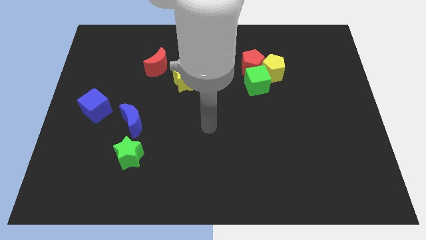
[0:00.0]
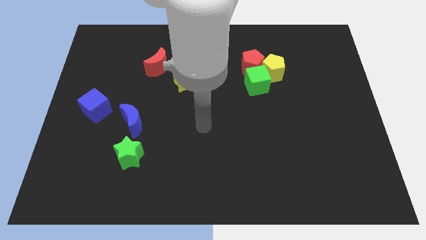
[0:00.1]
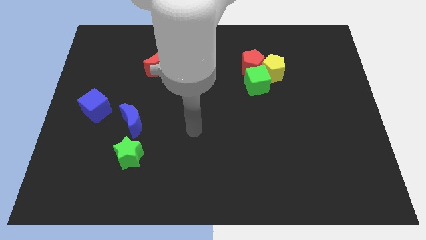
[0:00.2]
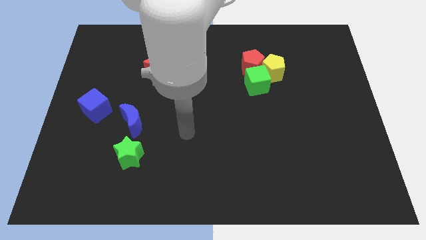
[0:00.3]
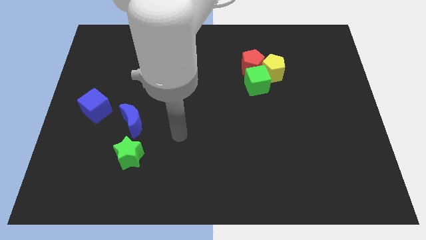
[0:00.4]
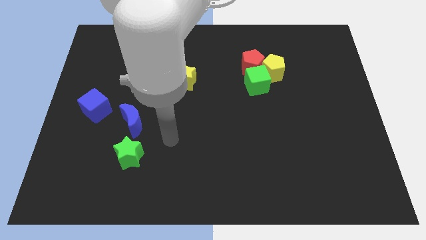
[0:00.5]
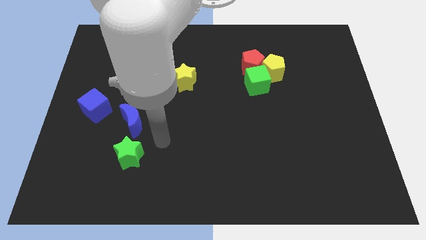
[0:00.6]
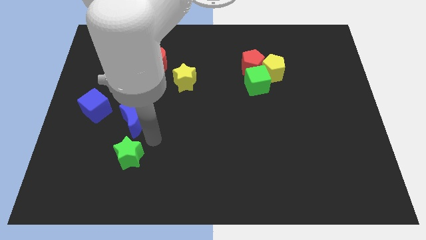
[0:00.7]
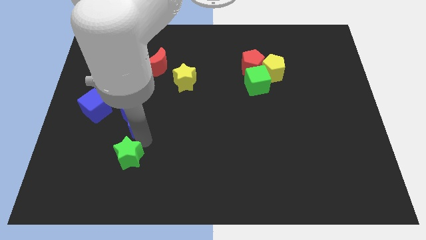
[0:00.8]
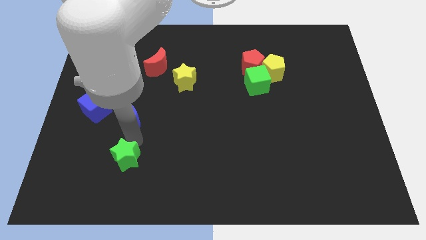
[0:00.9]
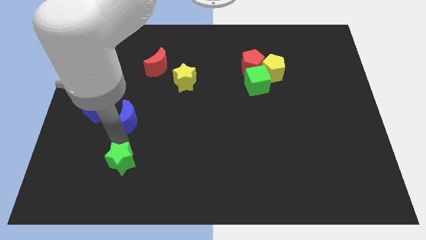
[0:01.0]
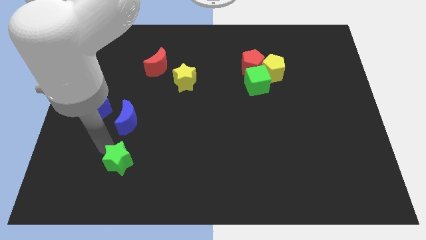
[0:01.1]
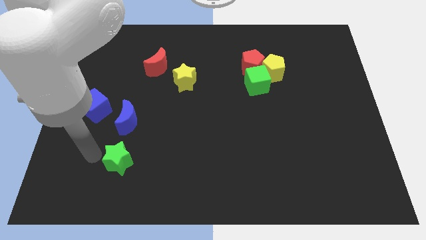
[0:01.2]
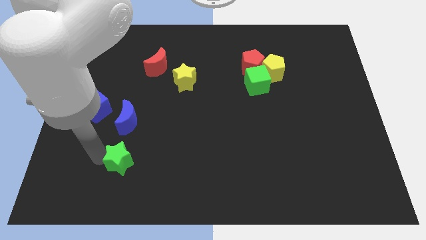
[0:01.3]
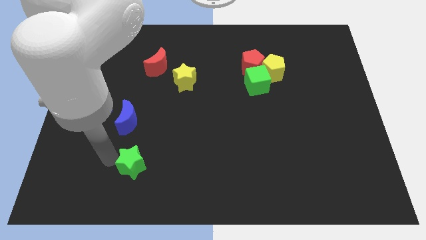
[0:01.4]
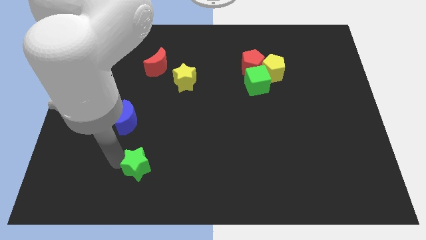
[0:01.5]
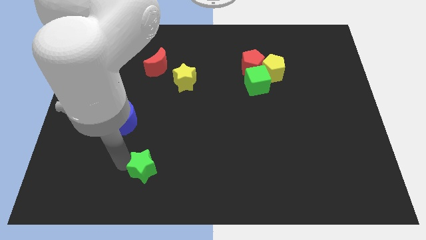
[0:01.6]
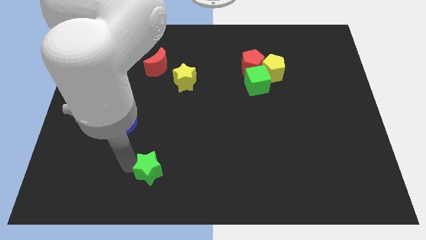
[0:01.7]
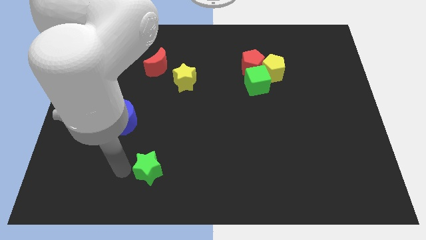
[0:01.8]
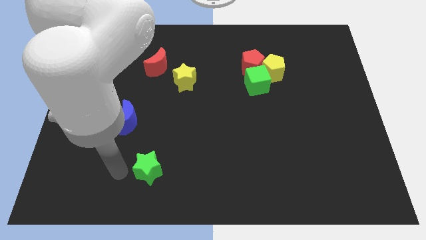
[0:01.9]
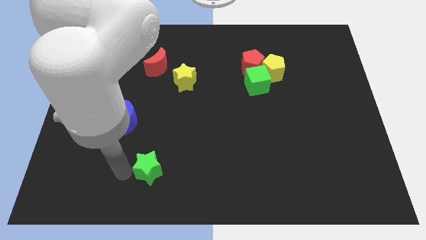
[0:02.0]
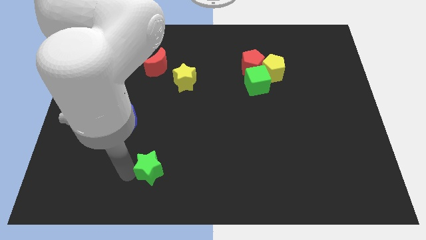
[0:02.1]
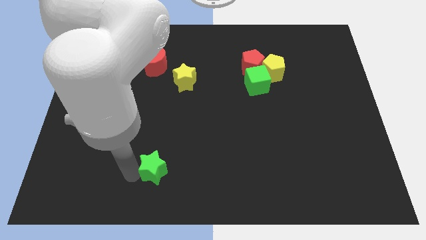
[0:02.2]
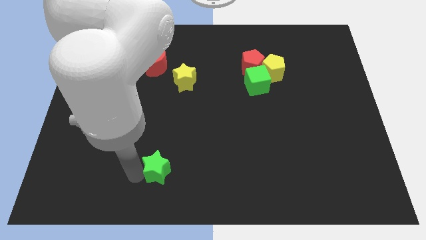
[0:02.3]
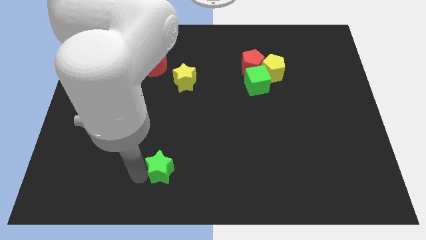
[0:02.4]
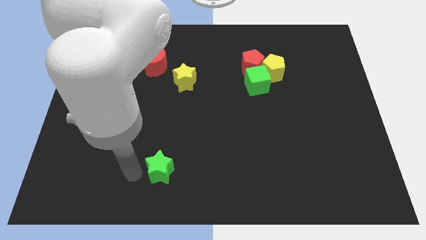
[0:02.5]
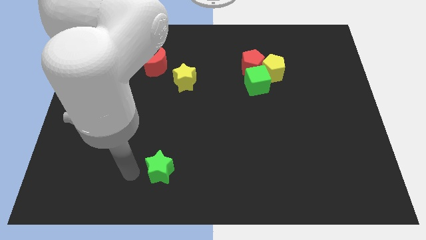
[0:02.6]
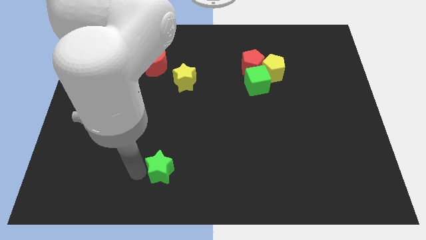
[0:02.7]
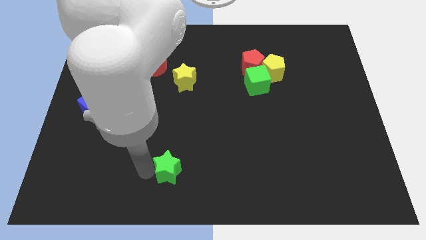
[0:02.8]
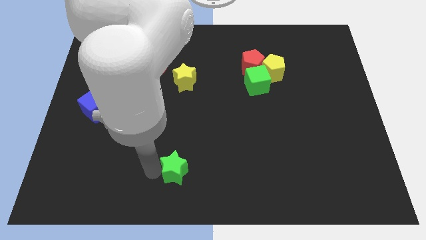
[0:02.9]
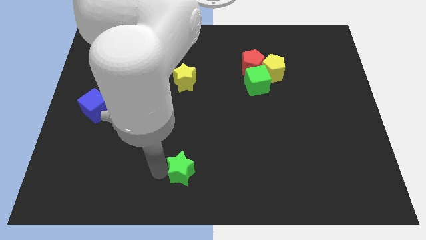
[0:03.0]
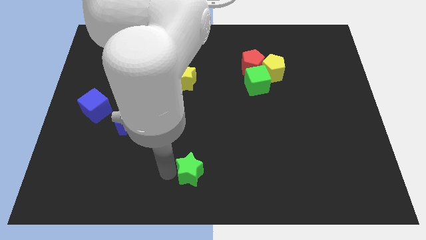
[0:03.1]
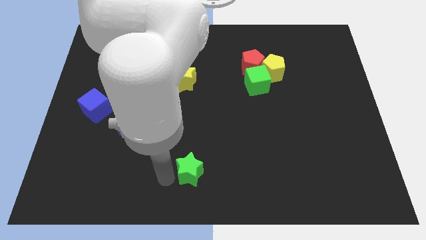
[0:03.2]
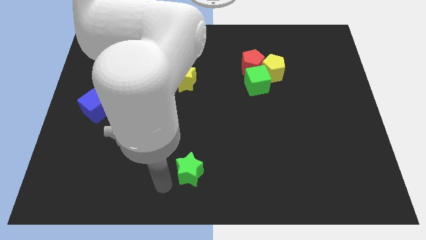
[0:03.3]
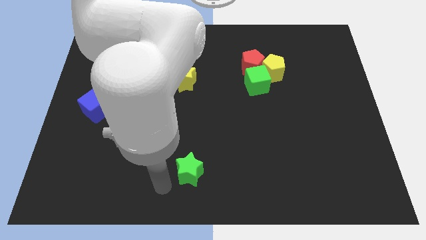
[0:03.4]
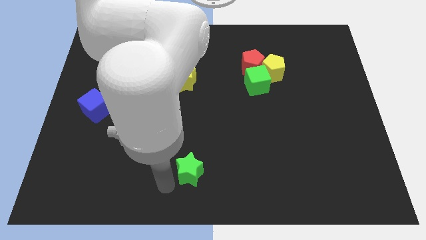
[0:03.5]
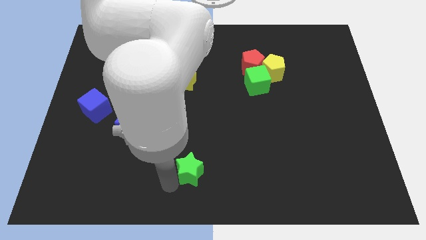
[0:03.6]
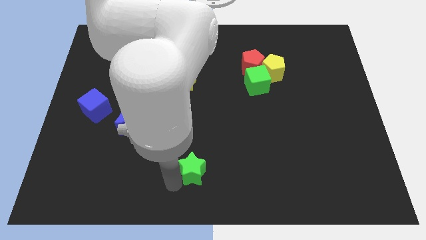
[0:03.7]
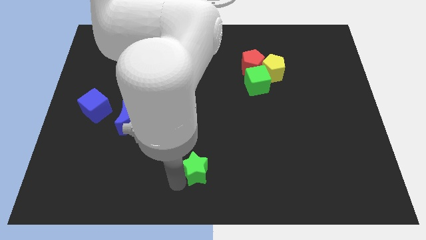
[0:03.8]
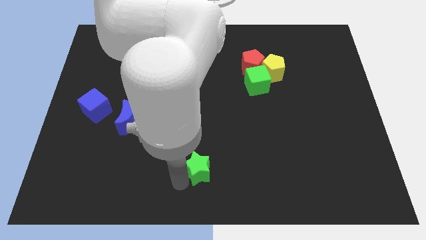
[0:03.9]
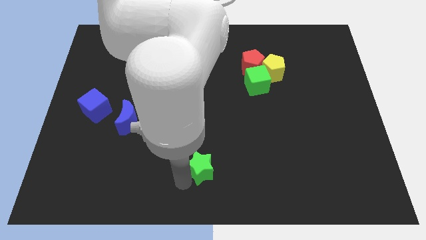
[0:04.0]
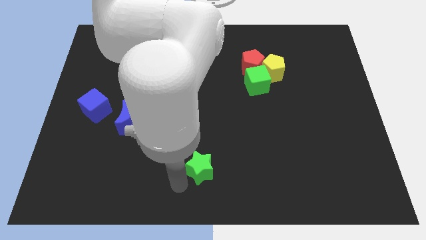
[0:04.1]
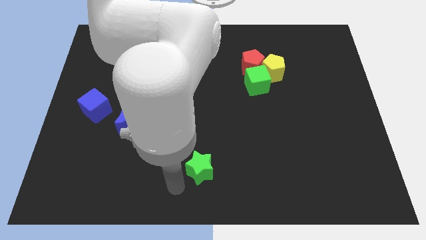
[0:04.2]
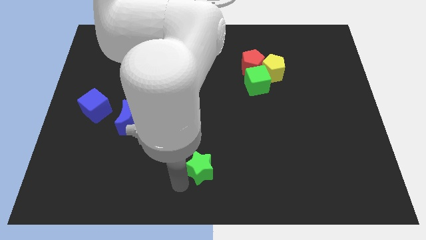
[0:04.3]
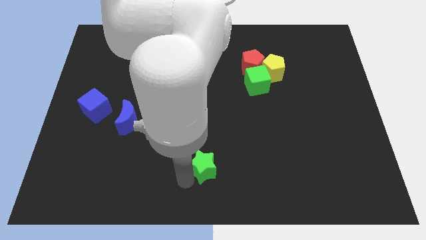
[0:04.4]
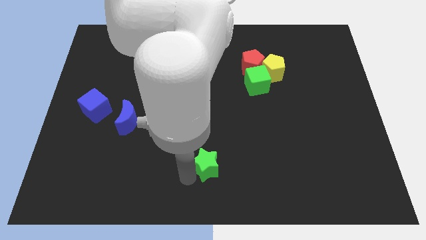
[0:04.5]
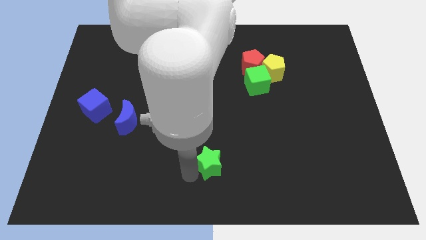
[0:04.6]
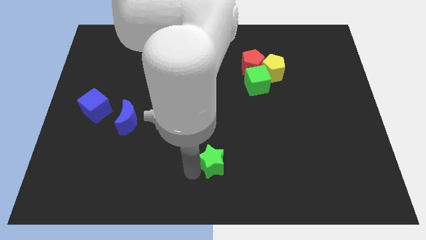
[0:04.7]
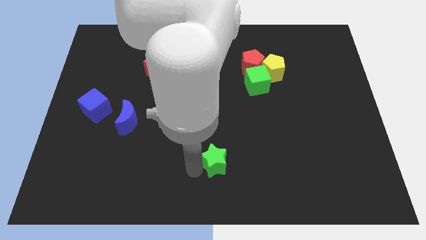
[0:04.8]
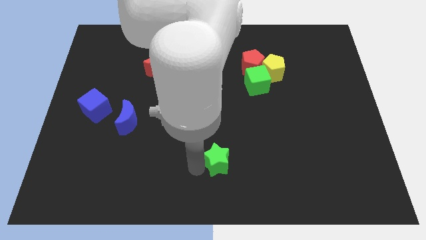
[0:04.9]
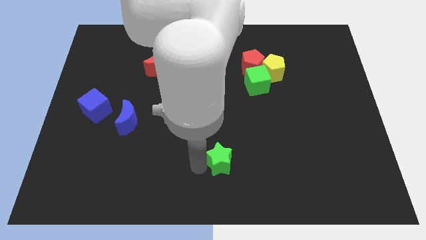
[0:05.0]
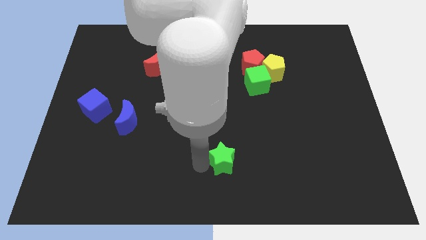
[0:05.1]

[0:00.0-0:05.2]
move the green star right

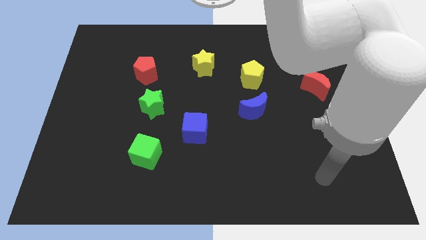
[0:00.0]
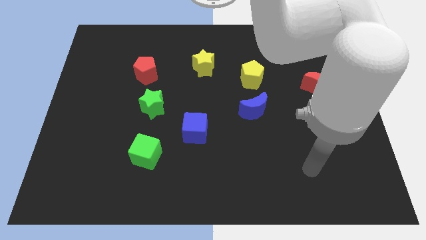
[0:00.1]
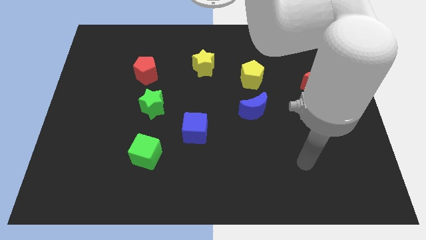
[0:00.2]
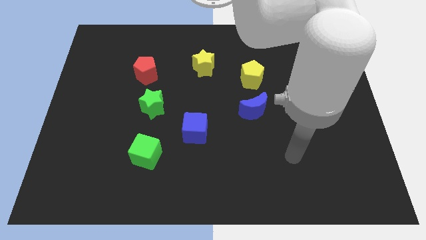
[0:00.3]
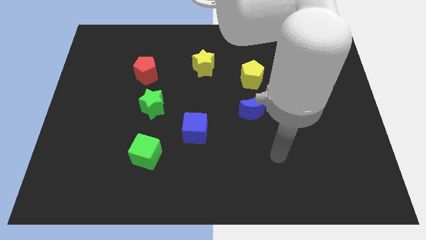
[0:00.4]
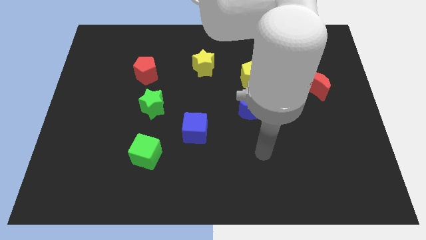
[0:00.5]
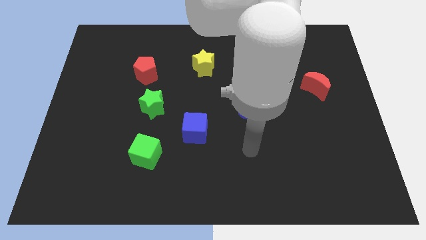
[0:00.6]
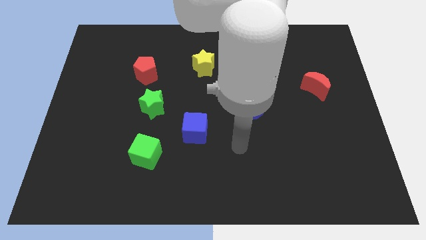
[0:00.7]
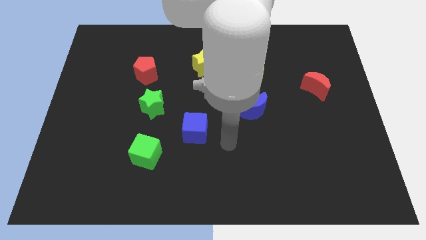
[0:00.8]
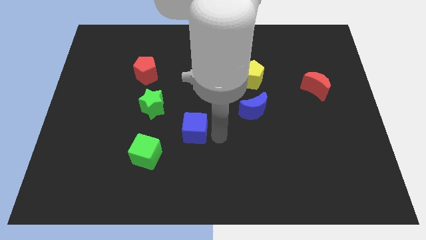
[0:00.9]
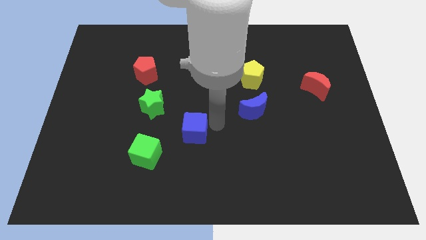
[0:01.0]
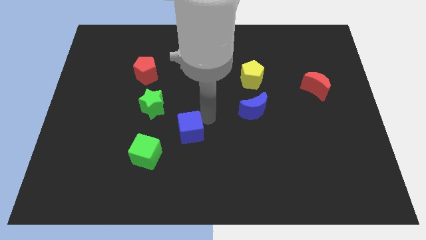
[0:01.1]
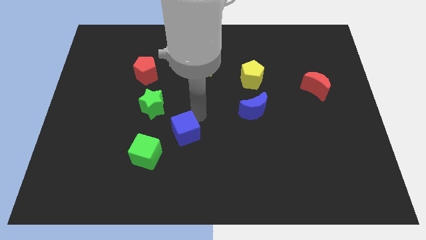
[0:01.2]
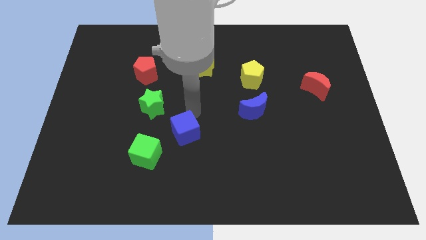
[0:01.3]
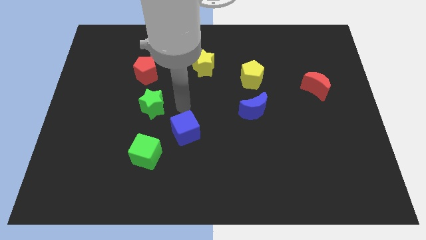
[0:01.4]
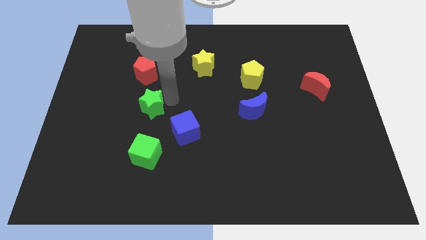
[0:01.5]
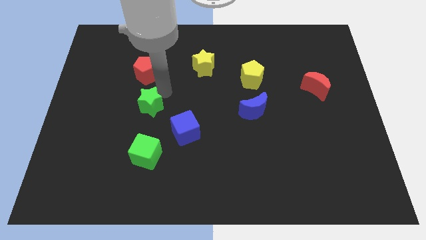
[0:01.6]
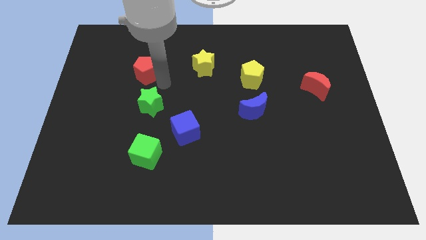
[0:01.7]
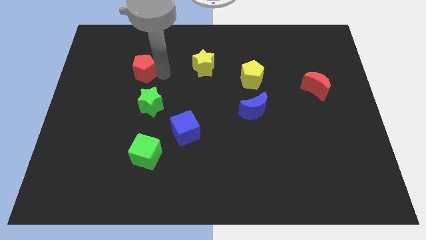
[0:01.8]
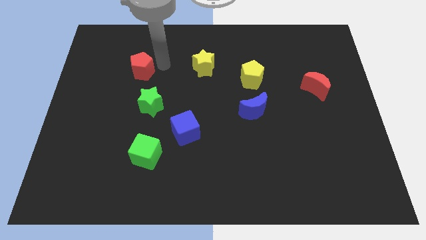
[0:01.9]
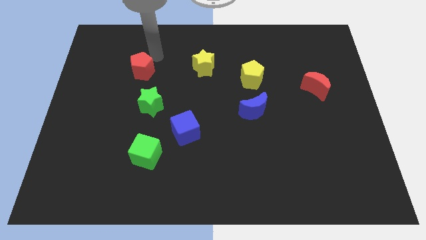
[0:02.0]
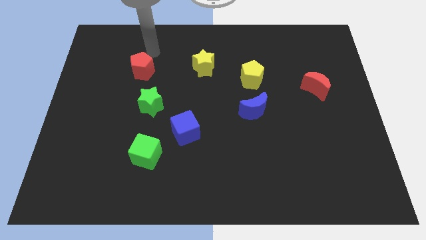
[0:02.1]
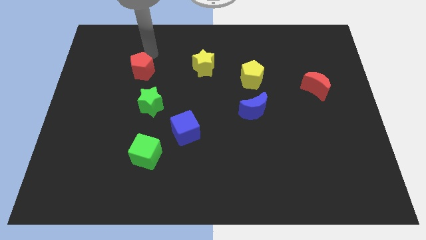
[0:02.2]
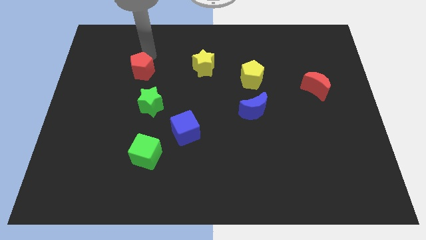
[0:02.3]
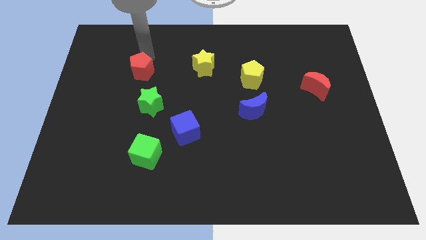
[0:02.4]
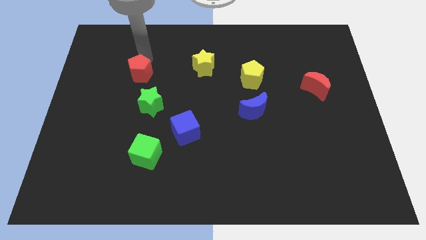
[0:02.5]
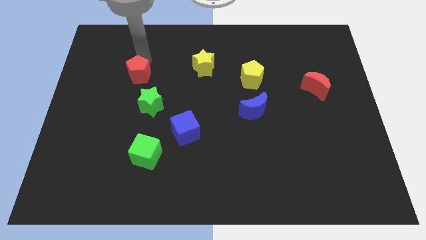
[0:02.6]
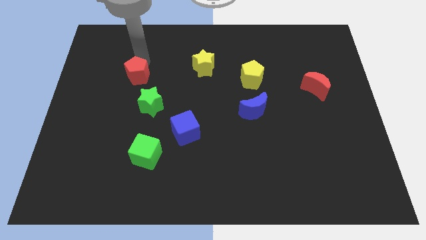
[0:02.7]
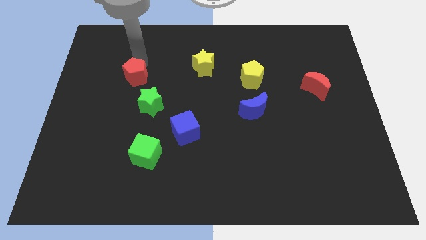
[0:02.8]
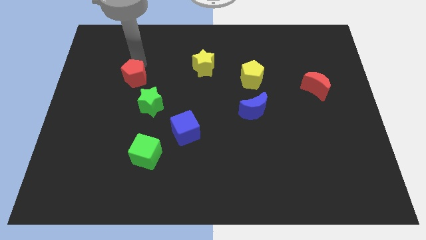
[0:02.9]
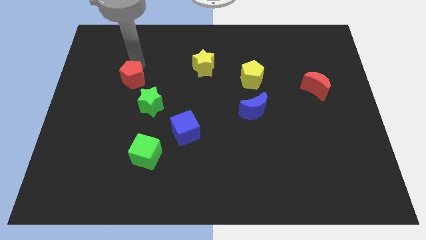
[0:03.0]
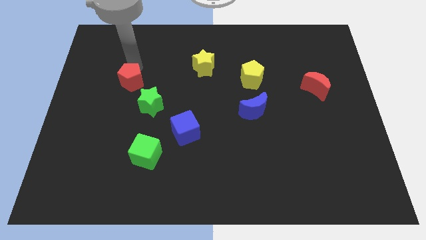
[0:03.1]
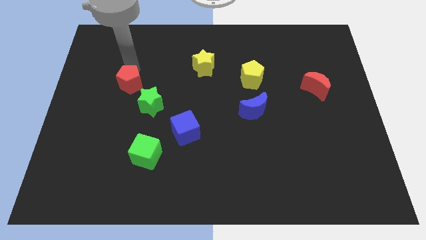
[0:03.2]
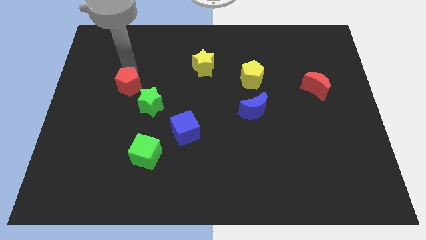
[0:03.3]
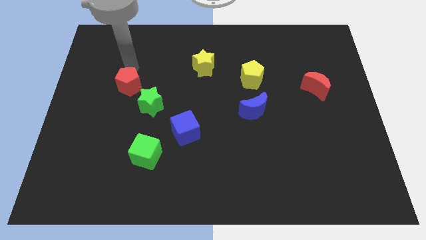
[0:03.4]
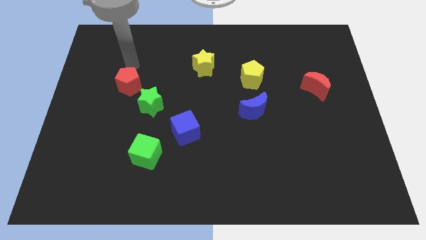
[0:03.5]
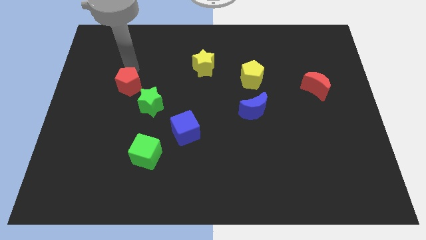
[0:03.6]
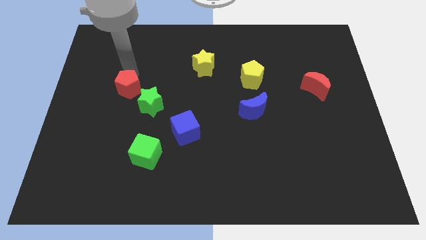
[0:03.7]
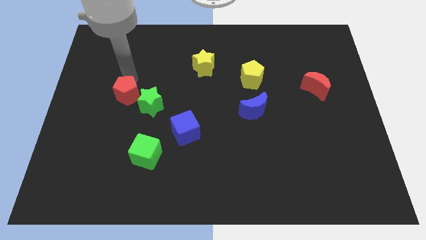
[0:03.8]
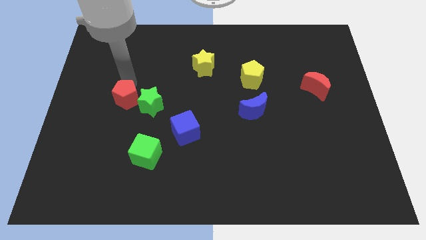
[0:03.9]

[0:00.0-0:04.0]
slide the red pentagon a bit down
